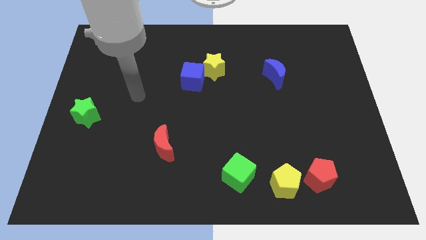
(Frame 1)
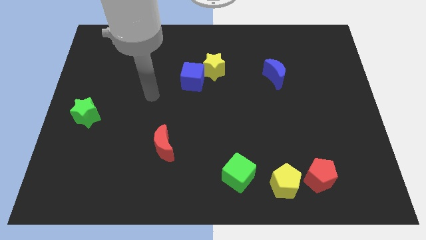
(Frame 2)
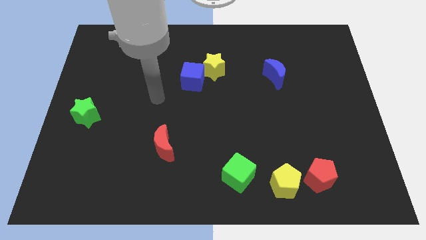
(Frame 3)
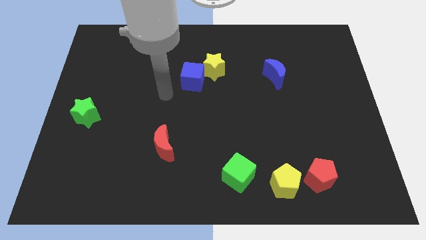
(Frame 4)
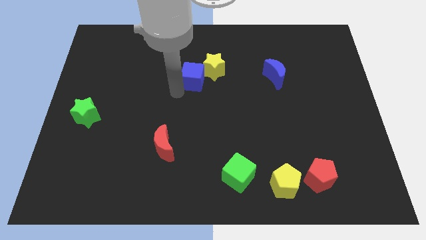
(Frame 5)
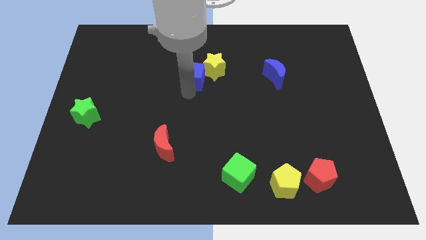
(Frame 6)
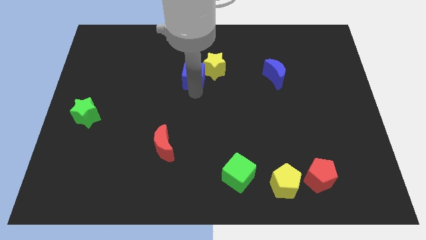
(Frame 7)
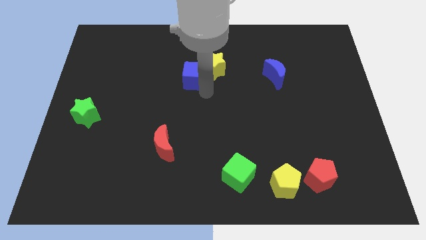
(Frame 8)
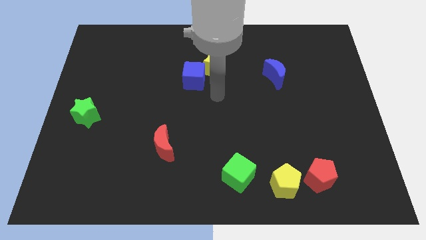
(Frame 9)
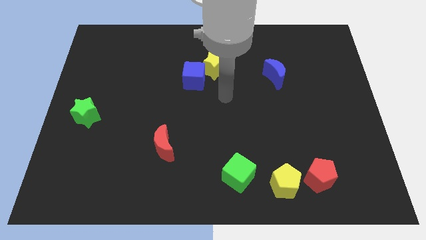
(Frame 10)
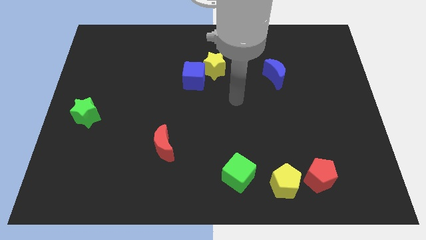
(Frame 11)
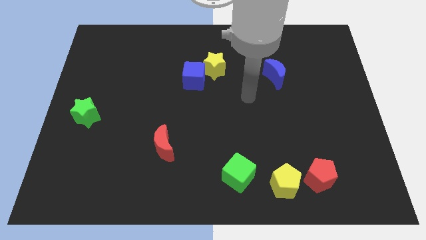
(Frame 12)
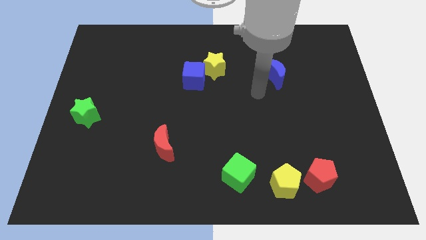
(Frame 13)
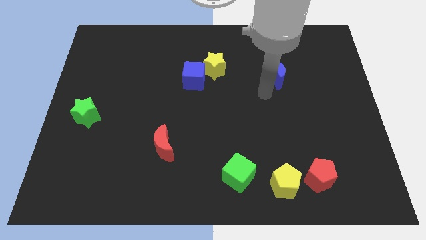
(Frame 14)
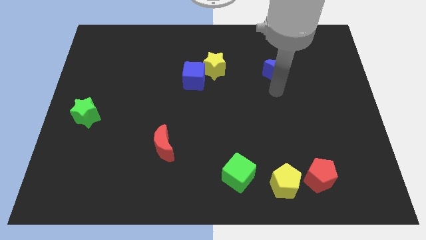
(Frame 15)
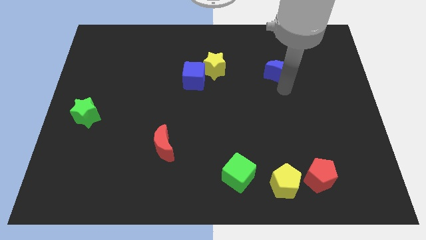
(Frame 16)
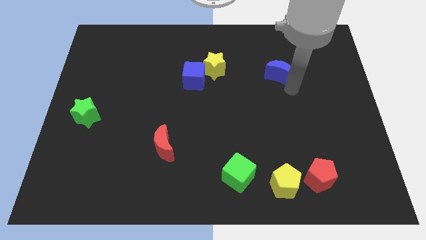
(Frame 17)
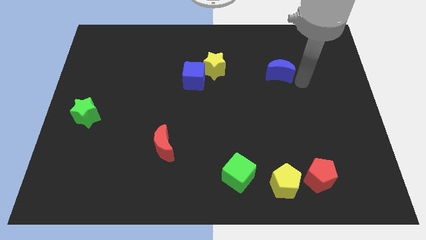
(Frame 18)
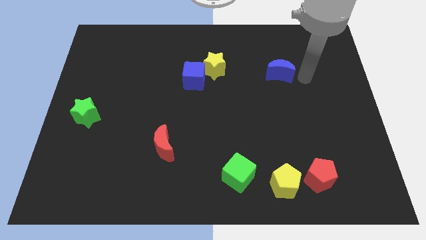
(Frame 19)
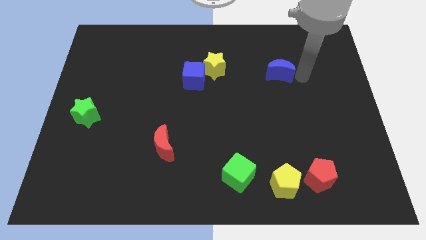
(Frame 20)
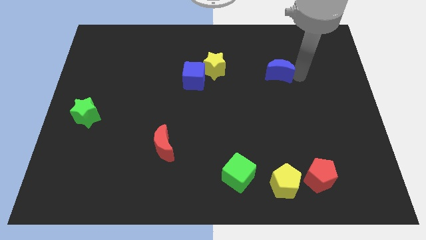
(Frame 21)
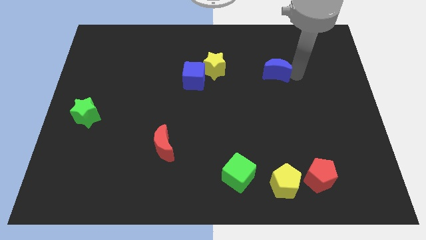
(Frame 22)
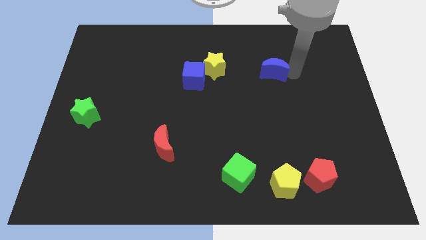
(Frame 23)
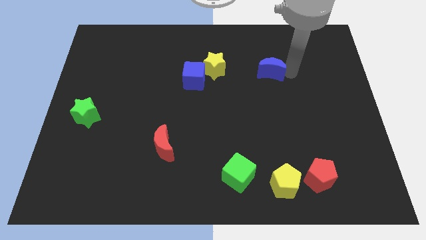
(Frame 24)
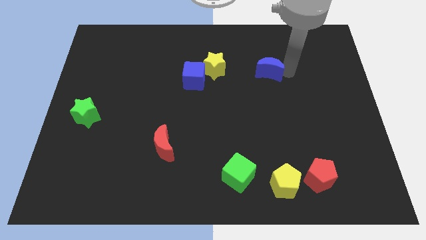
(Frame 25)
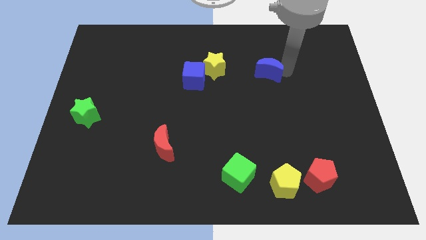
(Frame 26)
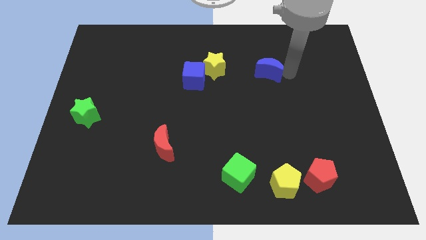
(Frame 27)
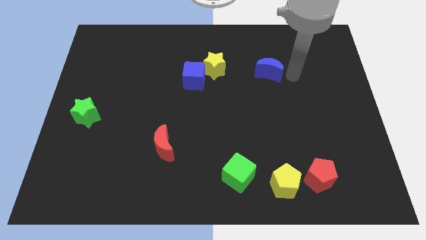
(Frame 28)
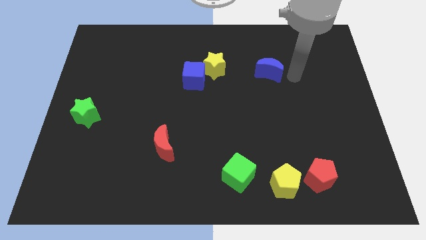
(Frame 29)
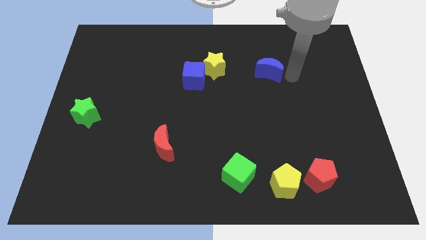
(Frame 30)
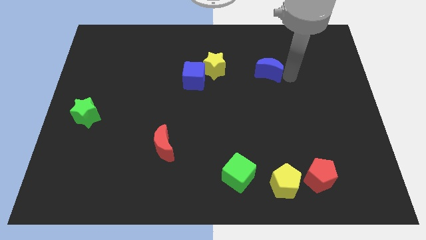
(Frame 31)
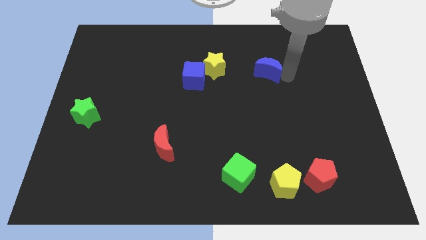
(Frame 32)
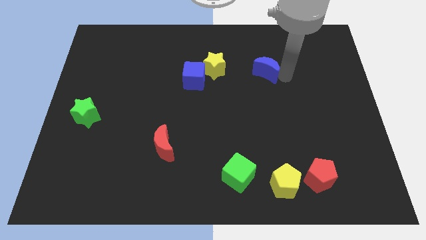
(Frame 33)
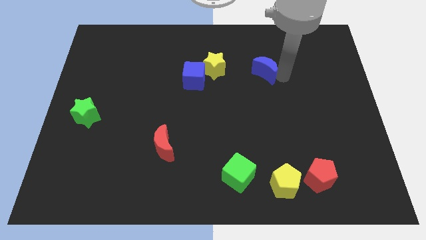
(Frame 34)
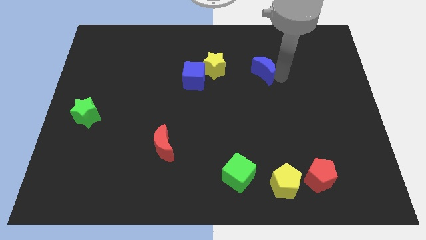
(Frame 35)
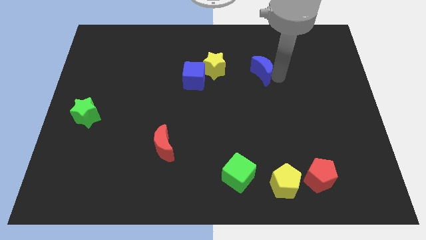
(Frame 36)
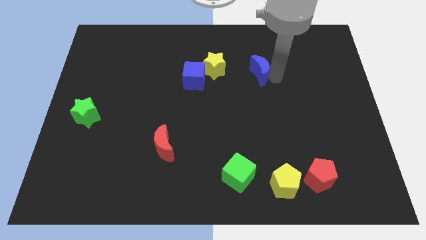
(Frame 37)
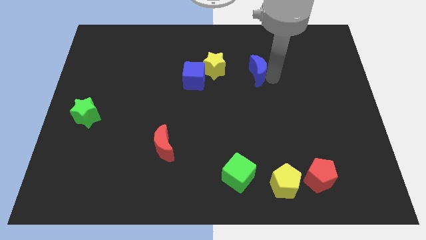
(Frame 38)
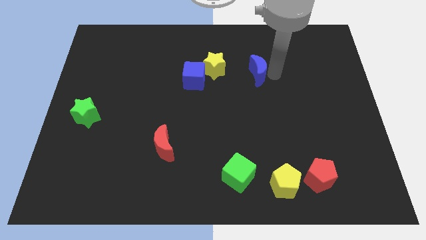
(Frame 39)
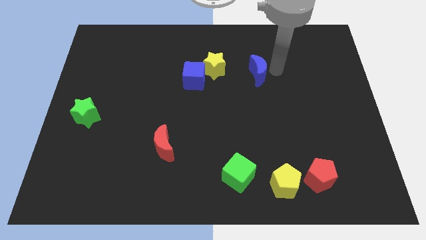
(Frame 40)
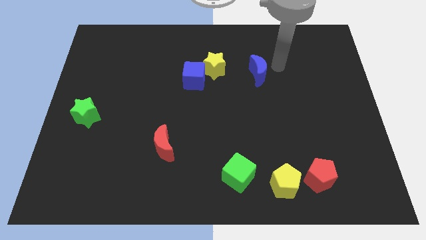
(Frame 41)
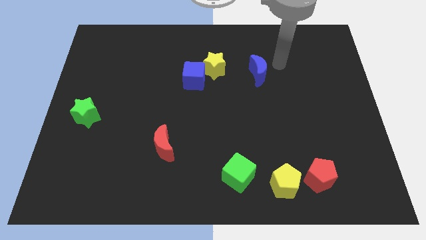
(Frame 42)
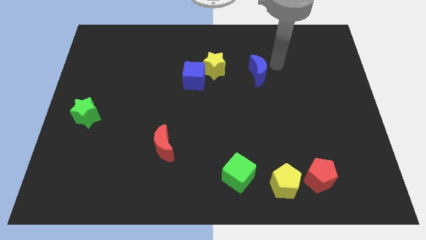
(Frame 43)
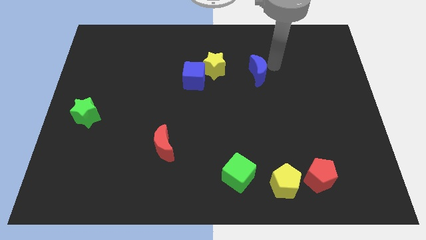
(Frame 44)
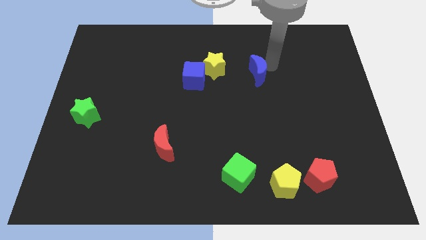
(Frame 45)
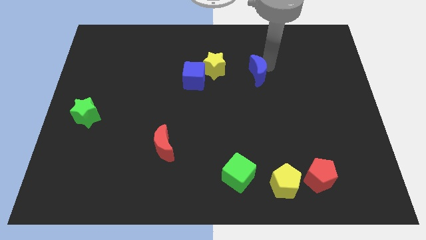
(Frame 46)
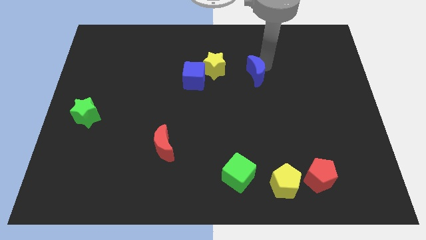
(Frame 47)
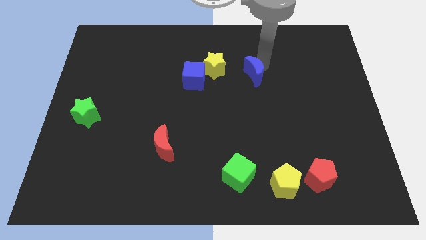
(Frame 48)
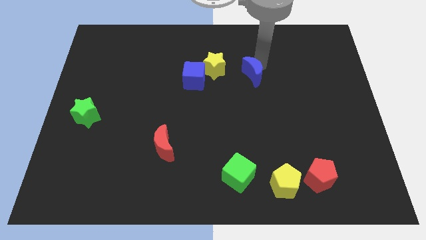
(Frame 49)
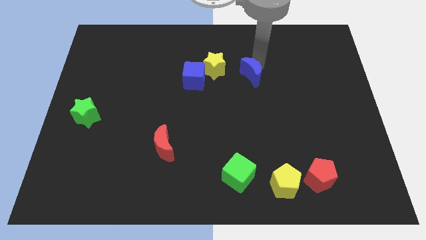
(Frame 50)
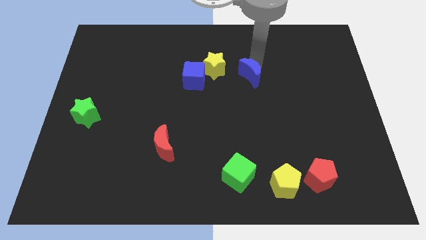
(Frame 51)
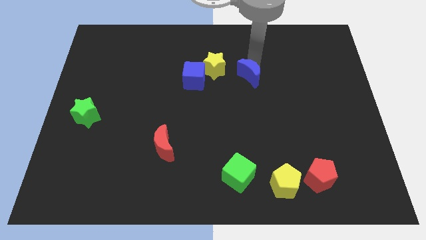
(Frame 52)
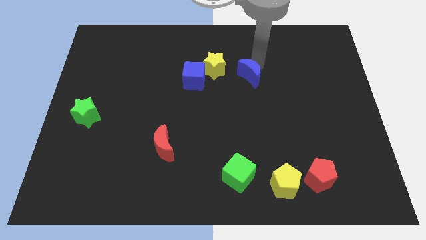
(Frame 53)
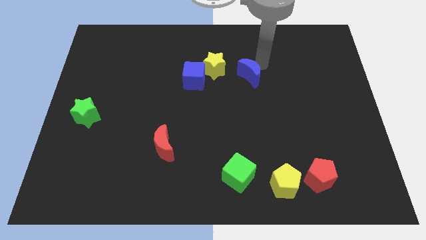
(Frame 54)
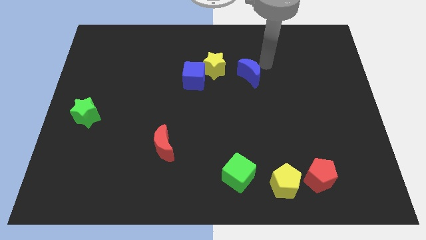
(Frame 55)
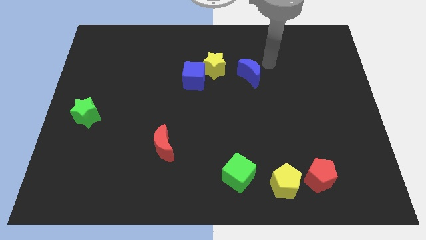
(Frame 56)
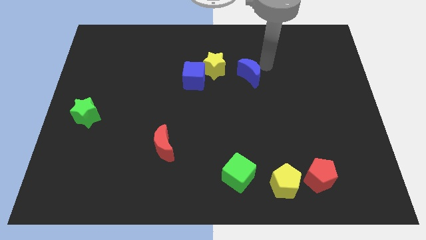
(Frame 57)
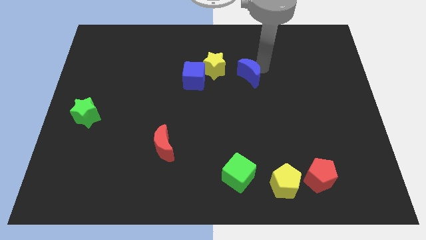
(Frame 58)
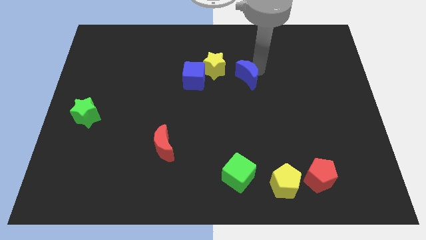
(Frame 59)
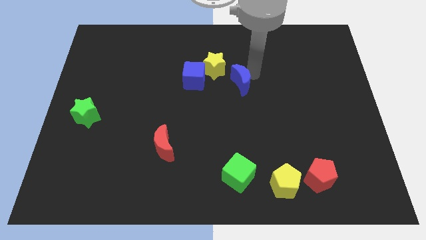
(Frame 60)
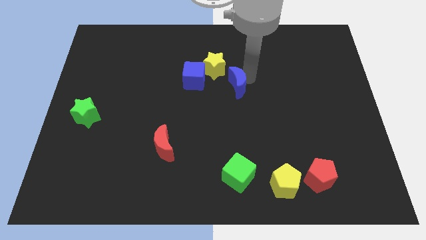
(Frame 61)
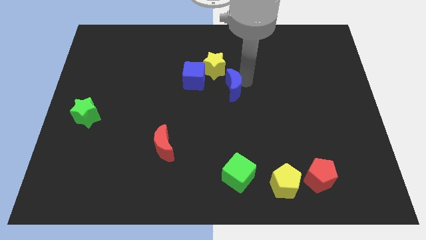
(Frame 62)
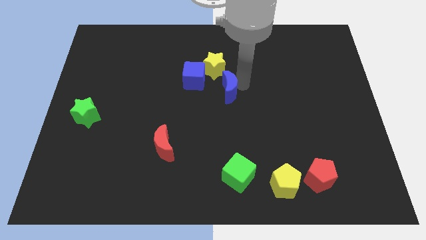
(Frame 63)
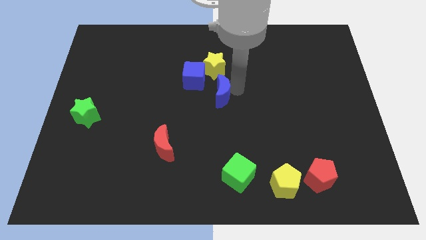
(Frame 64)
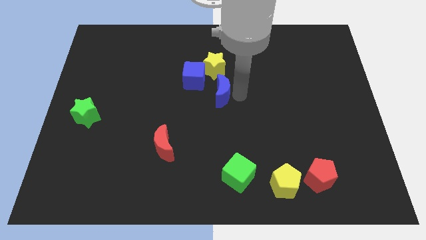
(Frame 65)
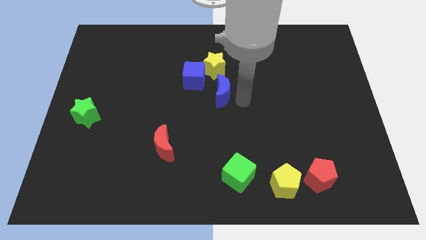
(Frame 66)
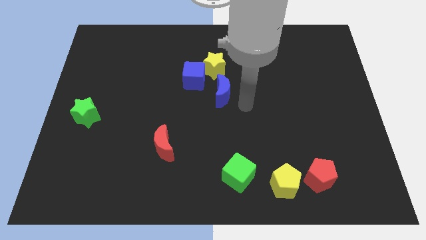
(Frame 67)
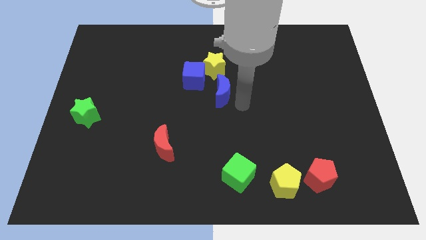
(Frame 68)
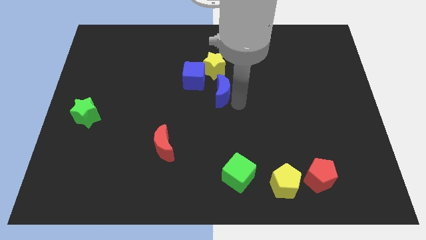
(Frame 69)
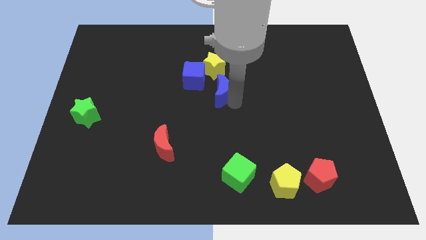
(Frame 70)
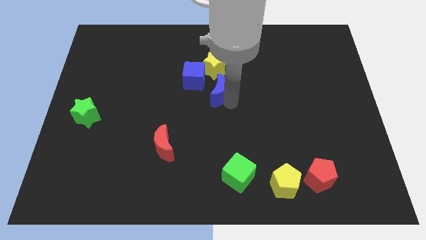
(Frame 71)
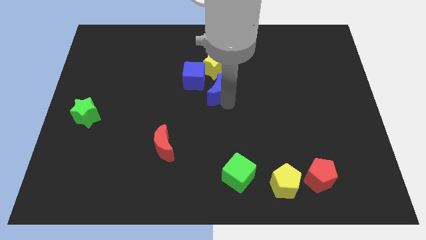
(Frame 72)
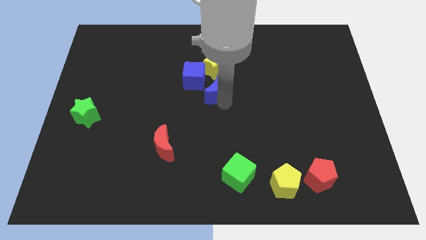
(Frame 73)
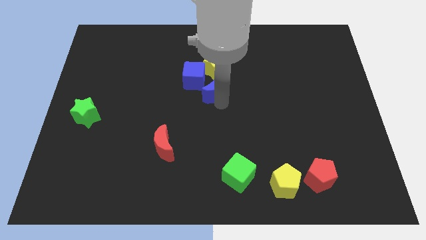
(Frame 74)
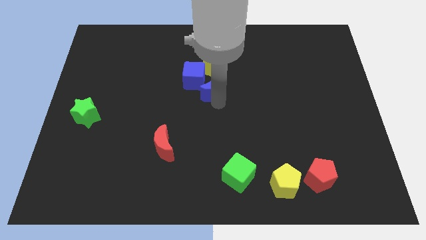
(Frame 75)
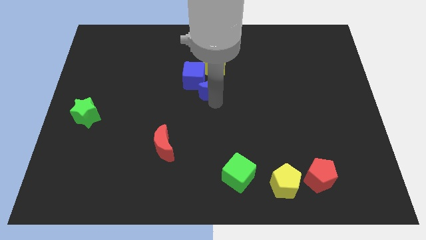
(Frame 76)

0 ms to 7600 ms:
slide the blue moon towards the blue cube
